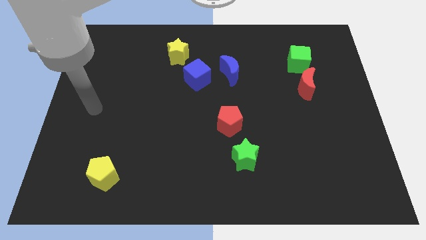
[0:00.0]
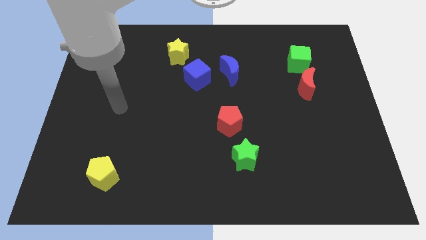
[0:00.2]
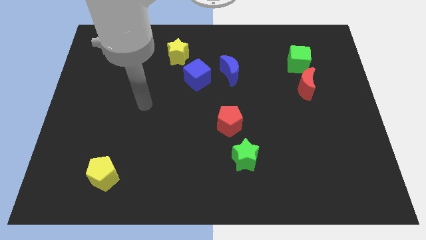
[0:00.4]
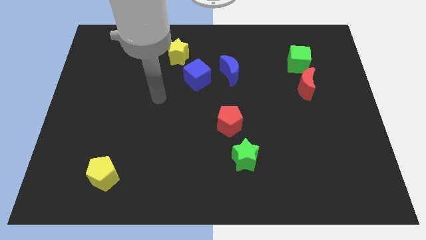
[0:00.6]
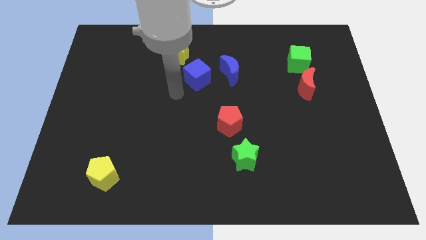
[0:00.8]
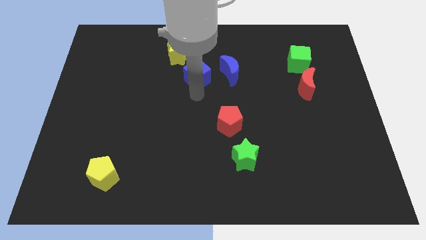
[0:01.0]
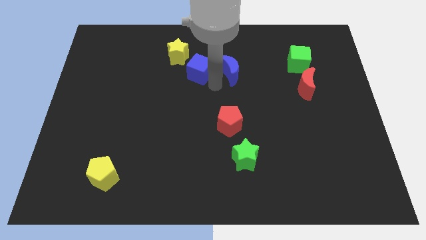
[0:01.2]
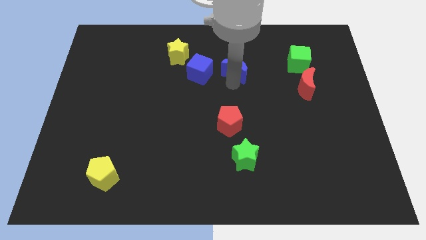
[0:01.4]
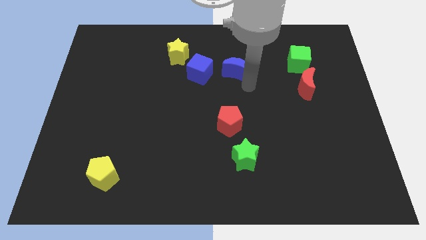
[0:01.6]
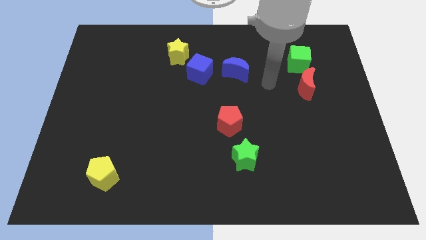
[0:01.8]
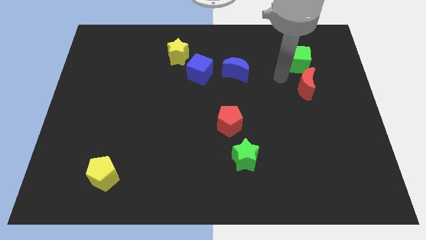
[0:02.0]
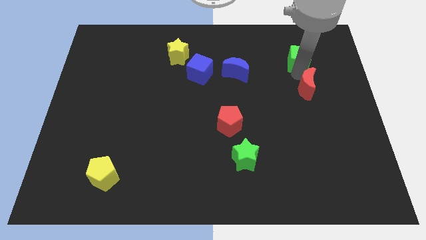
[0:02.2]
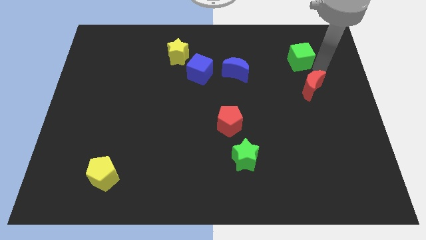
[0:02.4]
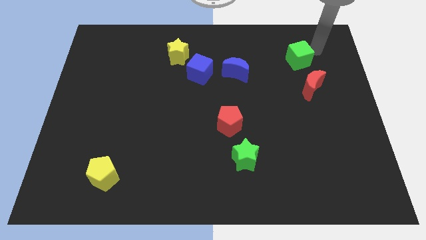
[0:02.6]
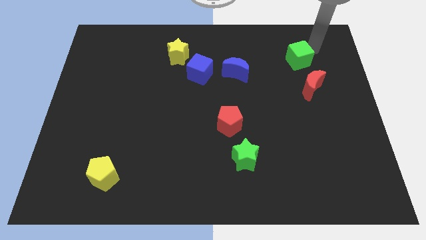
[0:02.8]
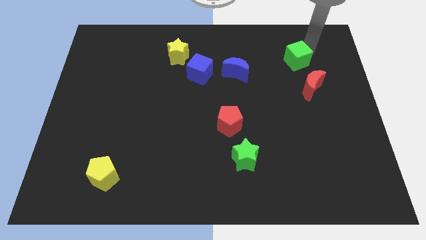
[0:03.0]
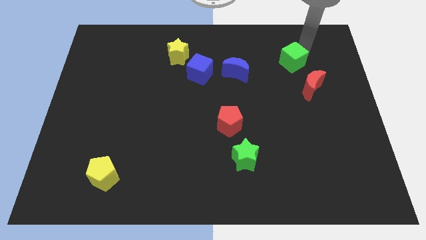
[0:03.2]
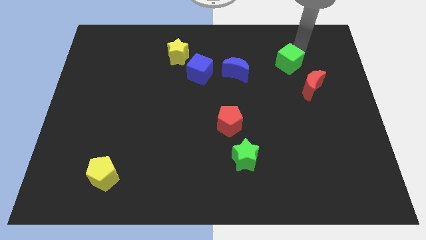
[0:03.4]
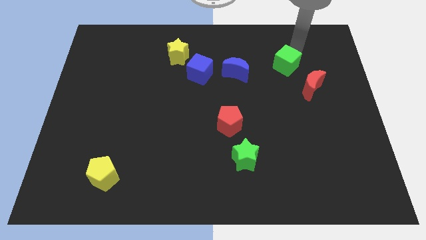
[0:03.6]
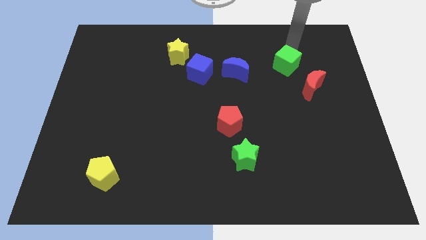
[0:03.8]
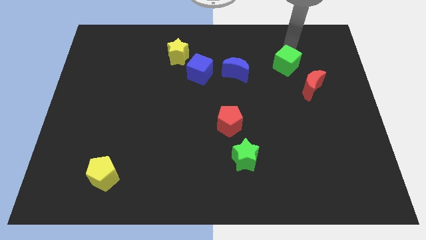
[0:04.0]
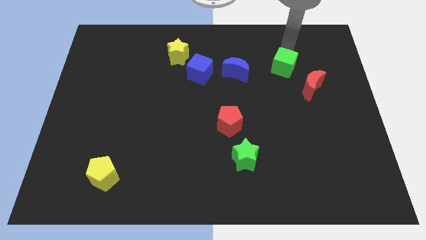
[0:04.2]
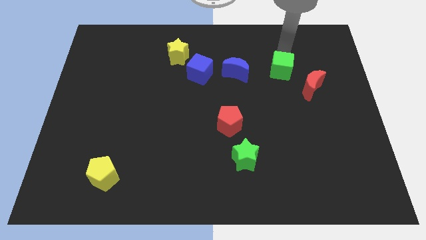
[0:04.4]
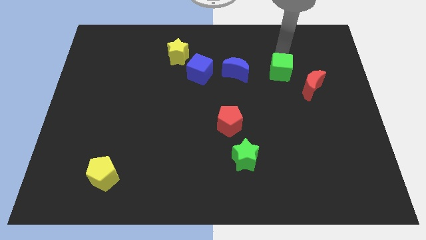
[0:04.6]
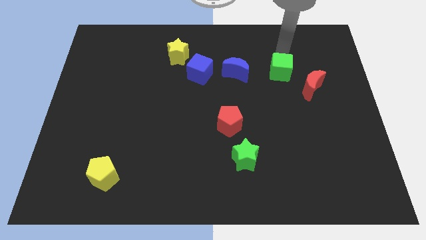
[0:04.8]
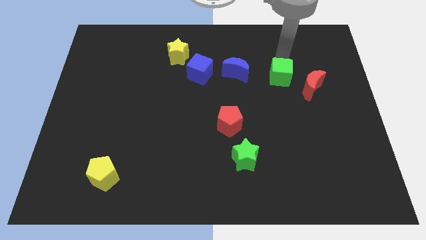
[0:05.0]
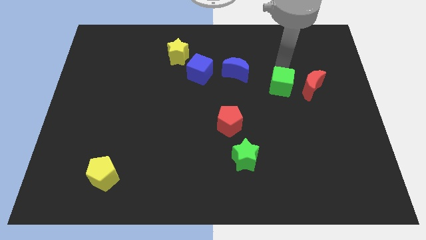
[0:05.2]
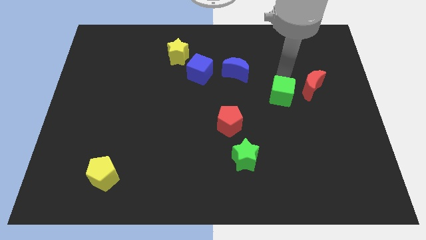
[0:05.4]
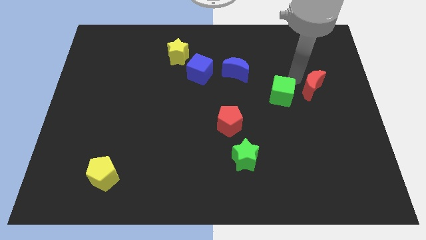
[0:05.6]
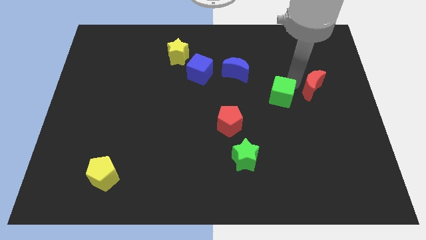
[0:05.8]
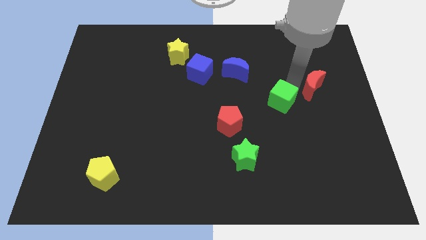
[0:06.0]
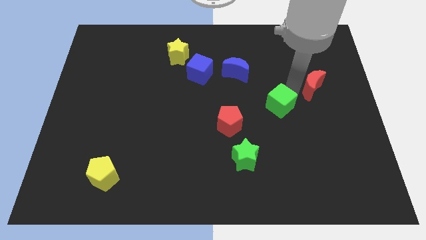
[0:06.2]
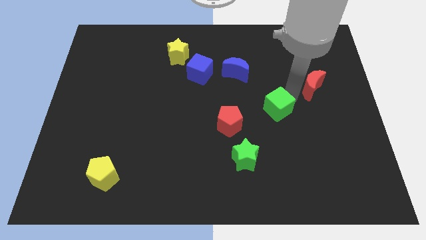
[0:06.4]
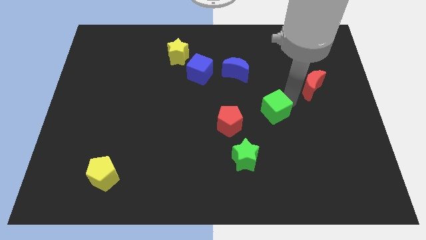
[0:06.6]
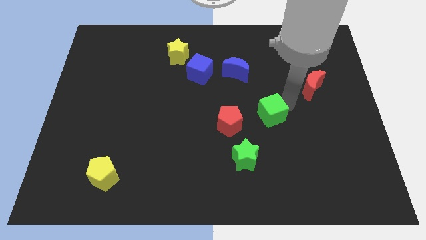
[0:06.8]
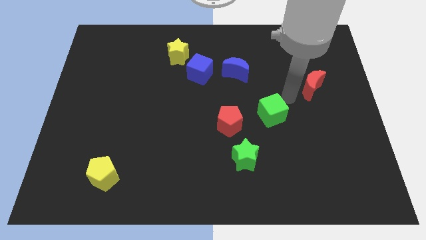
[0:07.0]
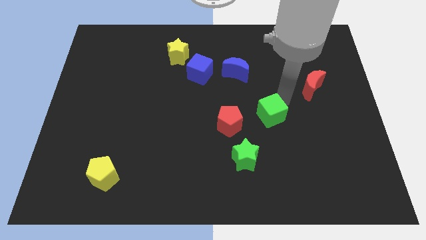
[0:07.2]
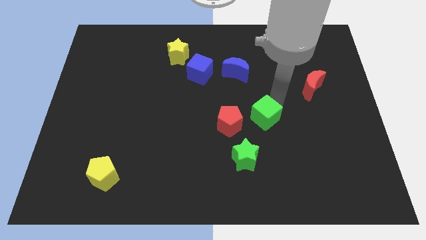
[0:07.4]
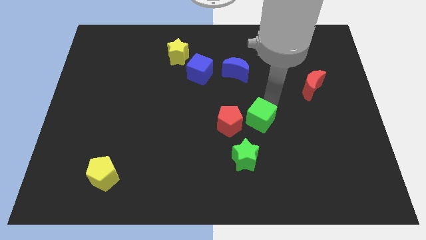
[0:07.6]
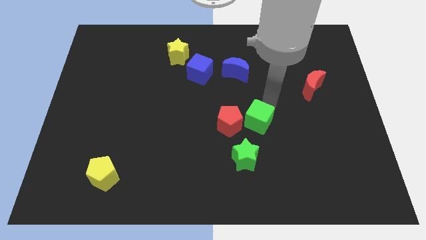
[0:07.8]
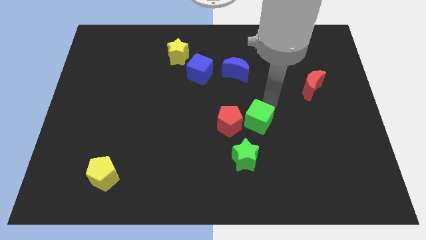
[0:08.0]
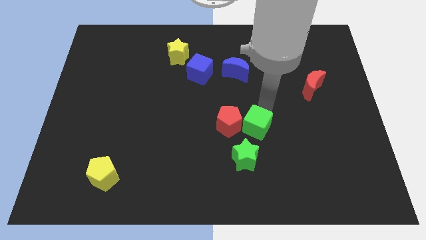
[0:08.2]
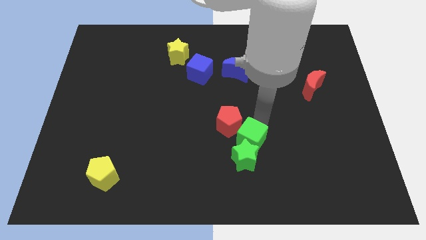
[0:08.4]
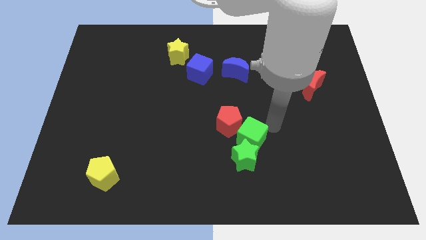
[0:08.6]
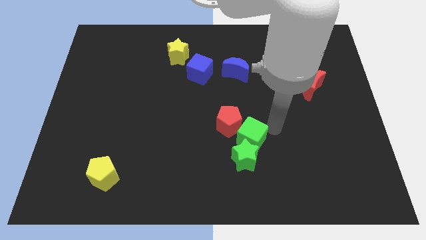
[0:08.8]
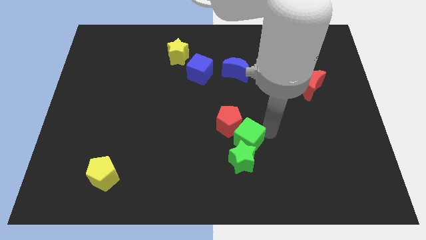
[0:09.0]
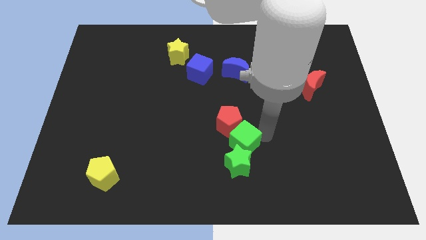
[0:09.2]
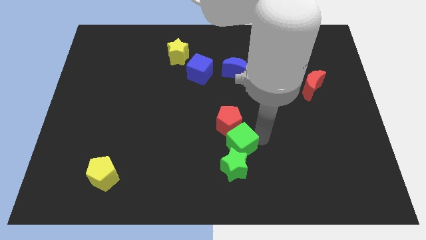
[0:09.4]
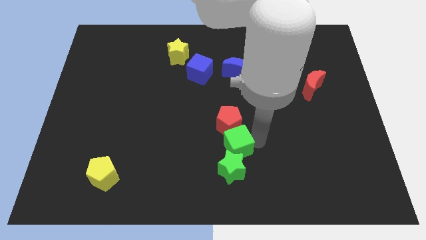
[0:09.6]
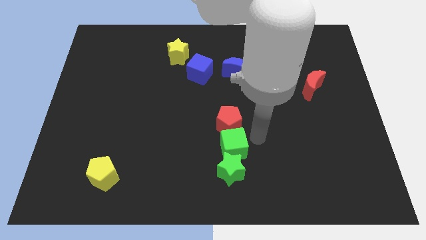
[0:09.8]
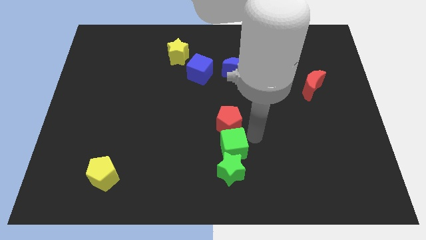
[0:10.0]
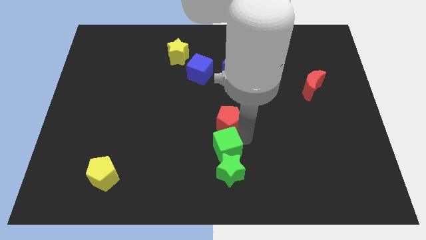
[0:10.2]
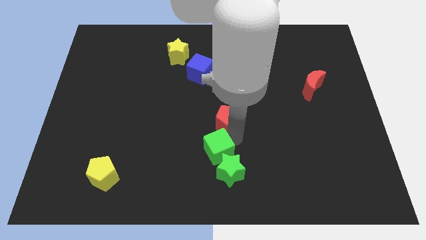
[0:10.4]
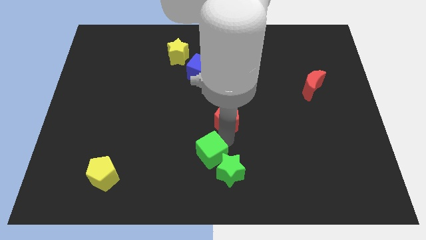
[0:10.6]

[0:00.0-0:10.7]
push the green cube left of the green star
